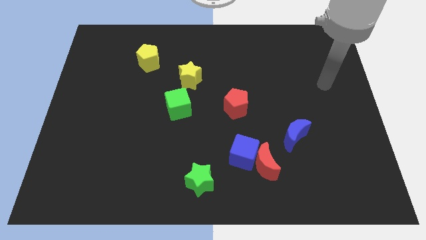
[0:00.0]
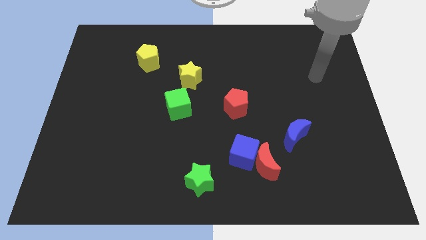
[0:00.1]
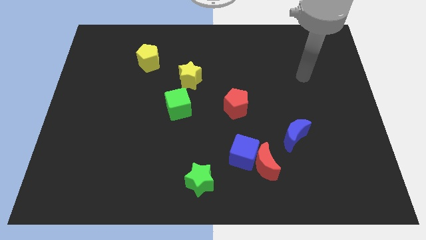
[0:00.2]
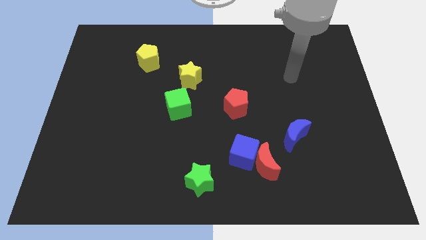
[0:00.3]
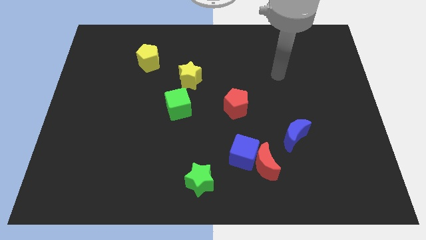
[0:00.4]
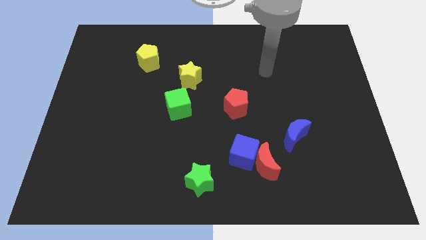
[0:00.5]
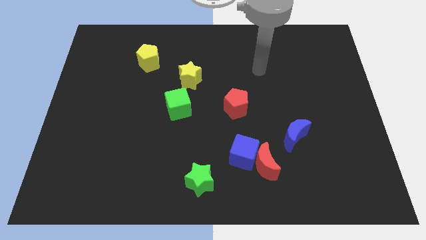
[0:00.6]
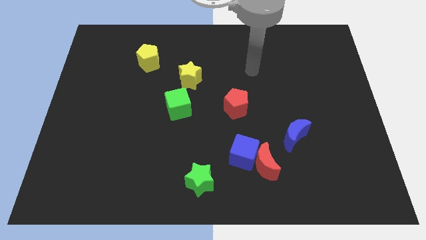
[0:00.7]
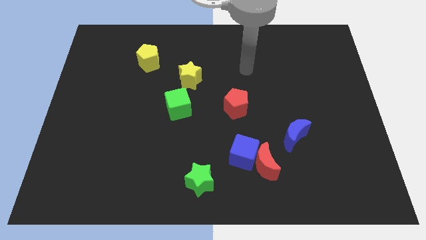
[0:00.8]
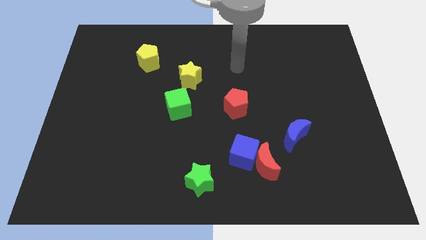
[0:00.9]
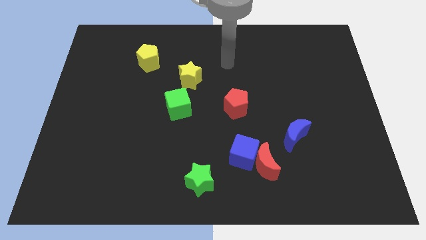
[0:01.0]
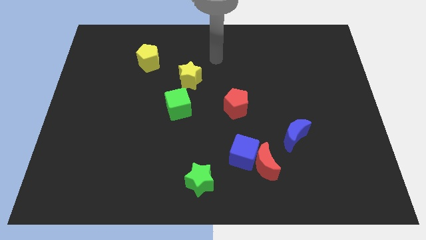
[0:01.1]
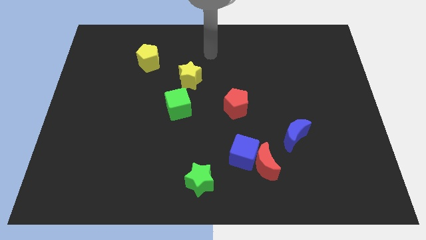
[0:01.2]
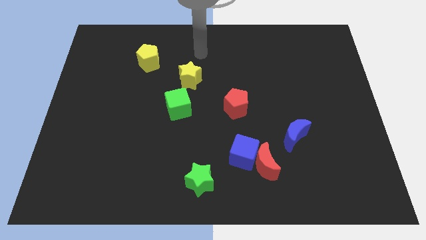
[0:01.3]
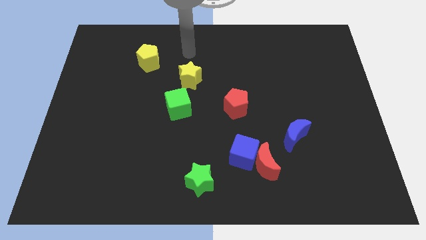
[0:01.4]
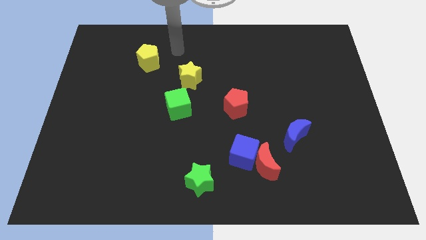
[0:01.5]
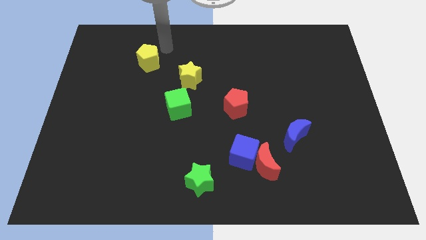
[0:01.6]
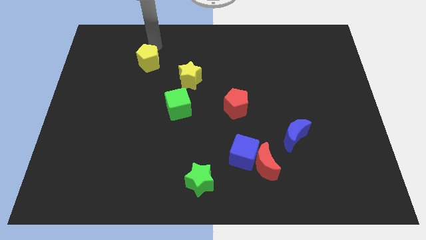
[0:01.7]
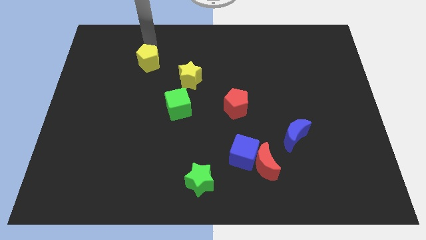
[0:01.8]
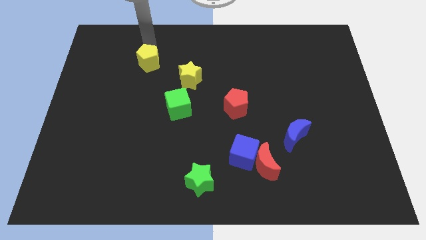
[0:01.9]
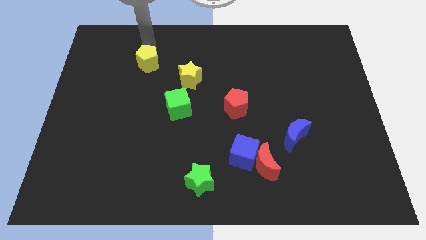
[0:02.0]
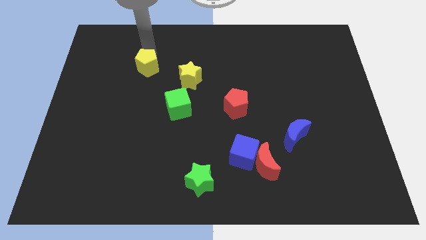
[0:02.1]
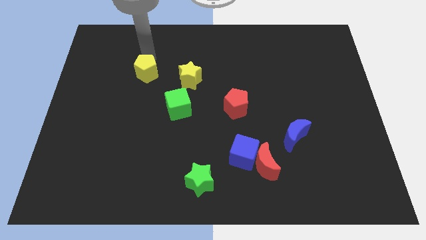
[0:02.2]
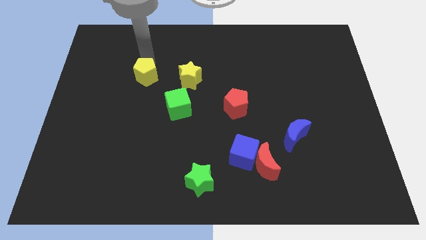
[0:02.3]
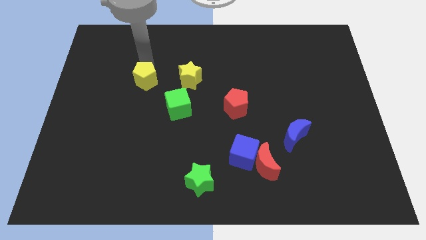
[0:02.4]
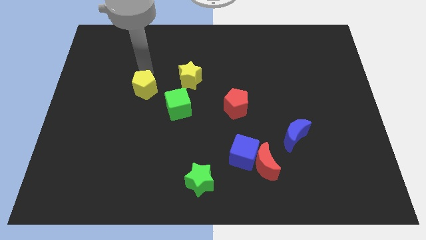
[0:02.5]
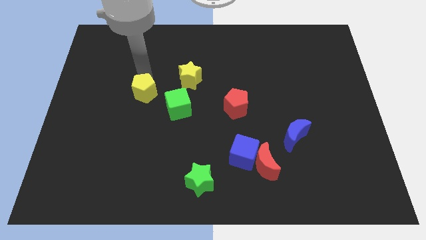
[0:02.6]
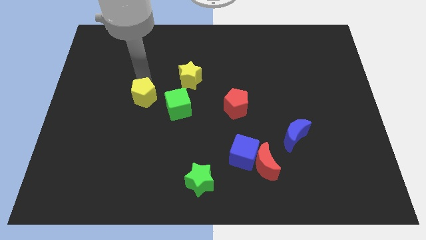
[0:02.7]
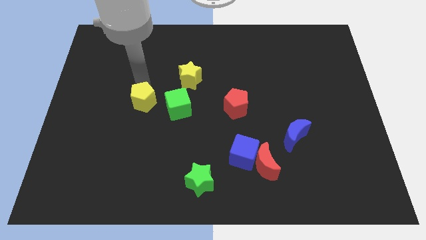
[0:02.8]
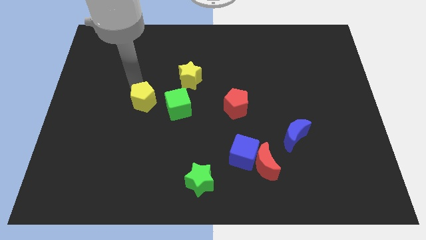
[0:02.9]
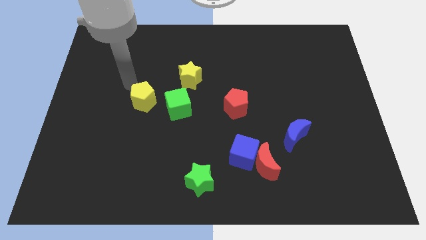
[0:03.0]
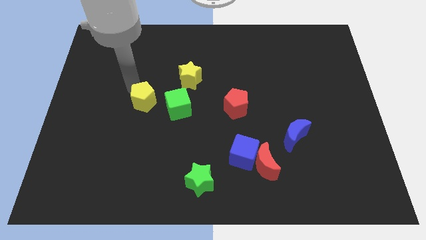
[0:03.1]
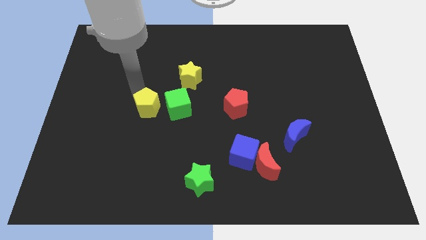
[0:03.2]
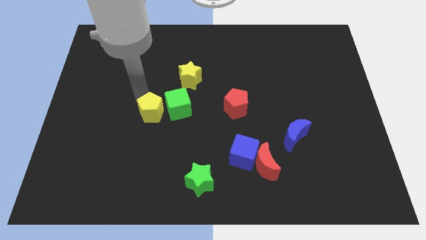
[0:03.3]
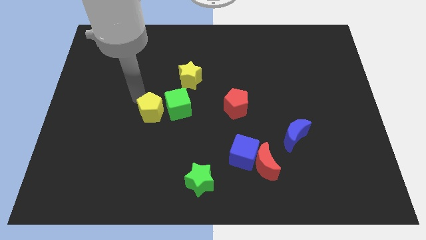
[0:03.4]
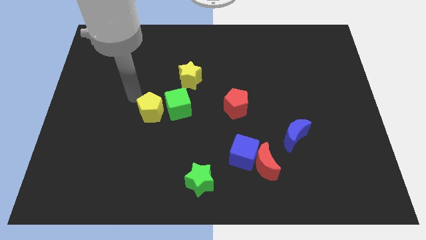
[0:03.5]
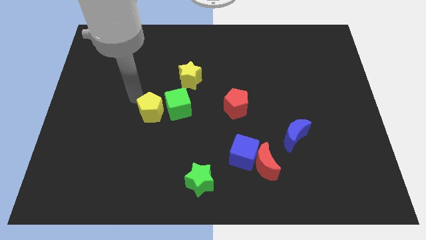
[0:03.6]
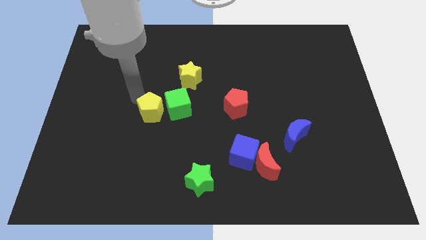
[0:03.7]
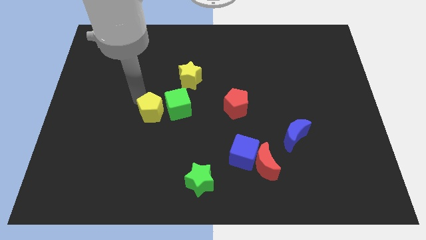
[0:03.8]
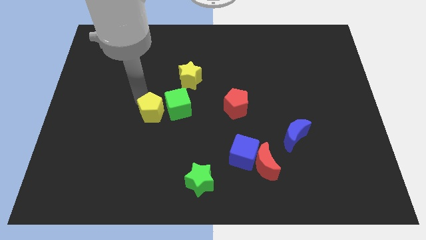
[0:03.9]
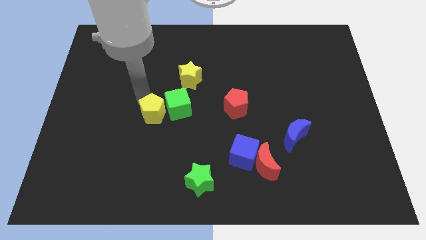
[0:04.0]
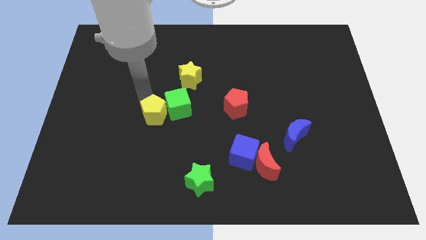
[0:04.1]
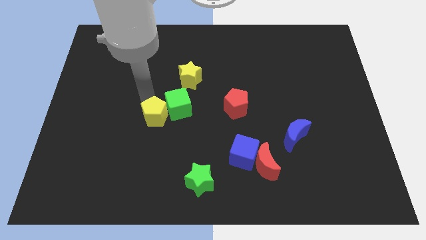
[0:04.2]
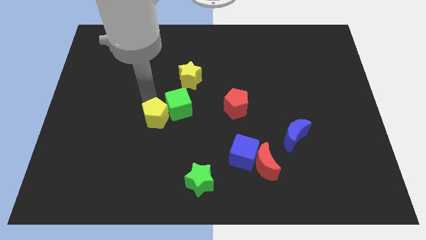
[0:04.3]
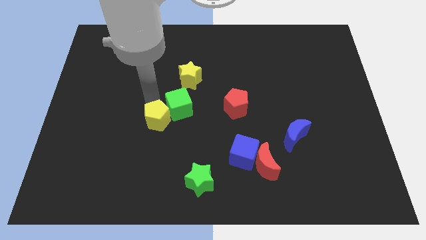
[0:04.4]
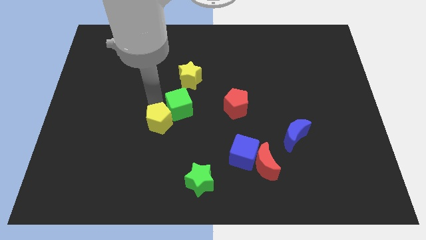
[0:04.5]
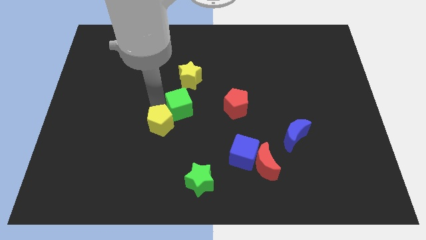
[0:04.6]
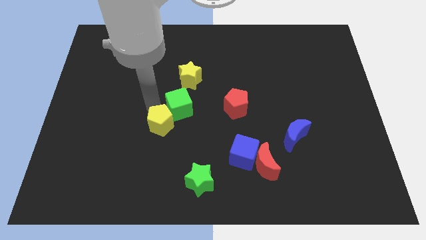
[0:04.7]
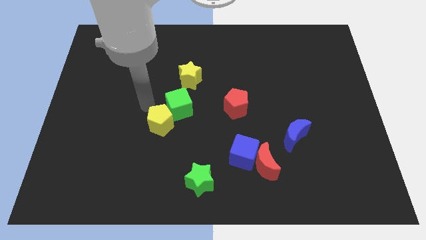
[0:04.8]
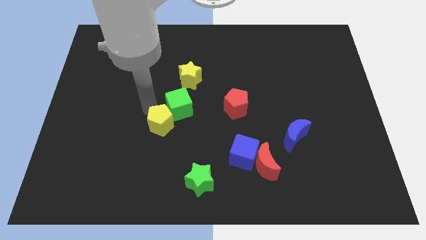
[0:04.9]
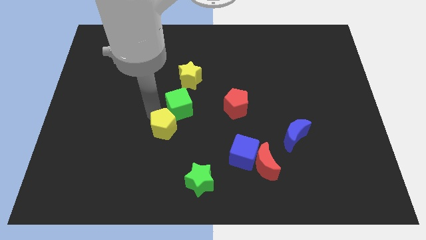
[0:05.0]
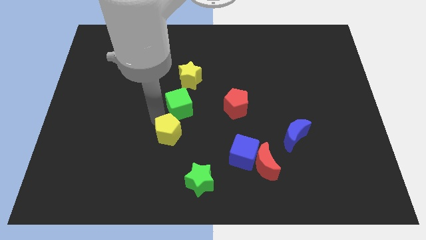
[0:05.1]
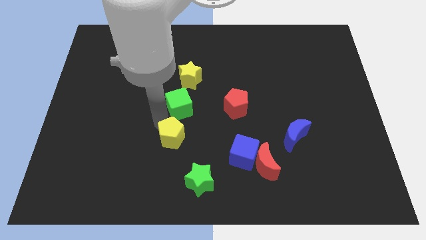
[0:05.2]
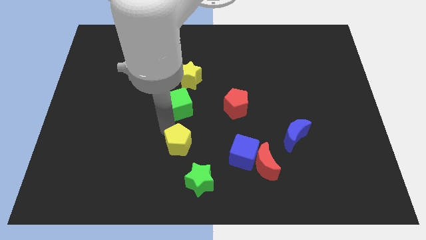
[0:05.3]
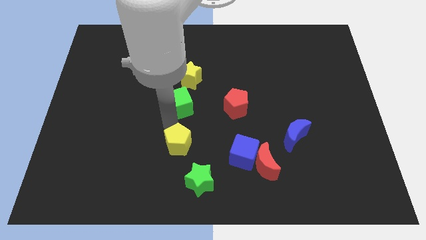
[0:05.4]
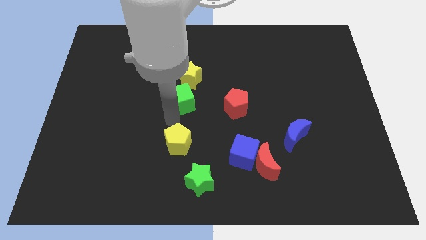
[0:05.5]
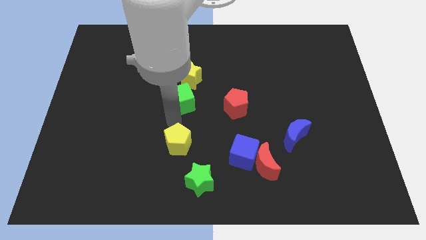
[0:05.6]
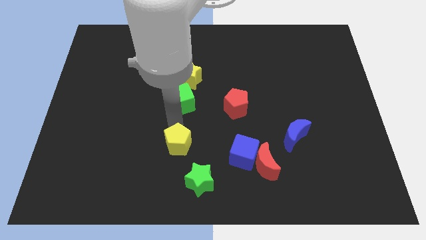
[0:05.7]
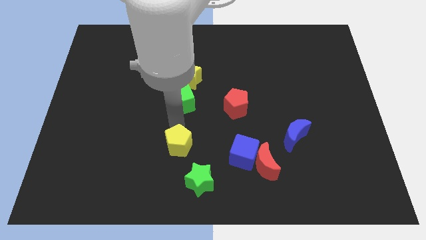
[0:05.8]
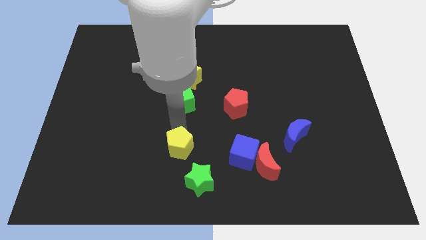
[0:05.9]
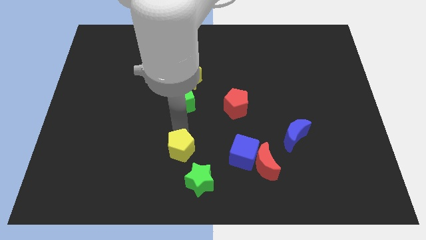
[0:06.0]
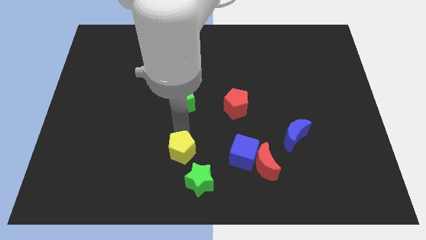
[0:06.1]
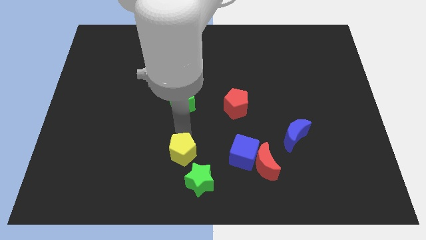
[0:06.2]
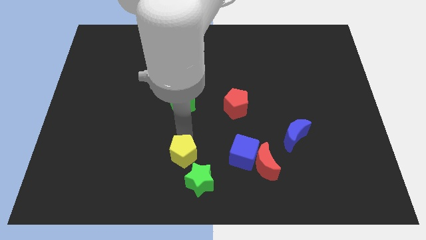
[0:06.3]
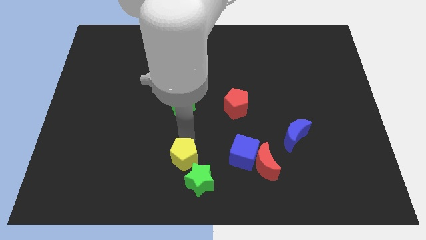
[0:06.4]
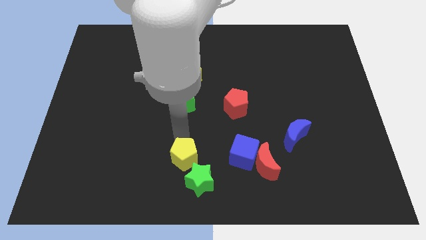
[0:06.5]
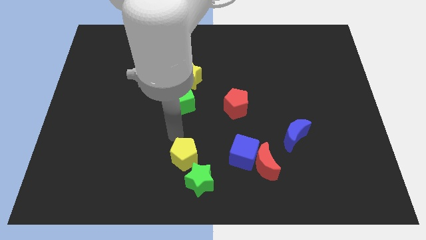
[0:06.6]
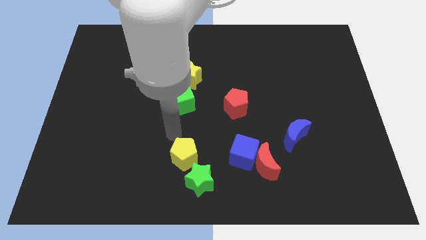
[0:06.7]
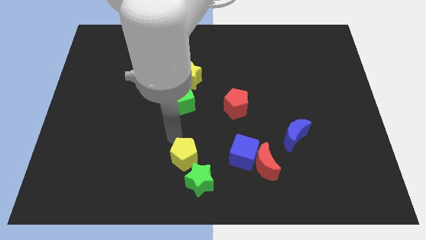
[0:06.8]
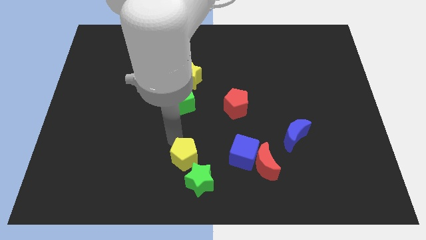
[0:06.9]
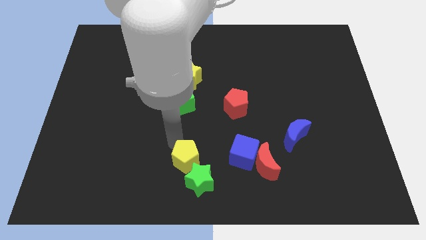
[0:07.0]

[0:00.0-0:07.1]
push the yellow pentagon next to the green star
